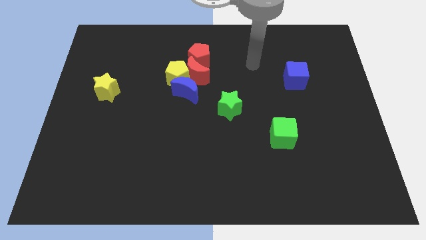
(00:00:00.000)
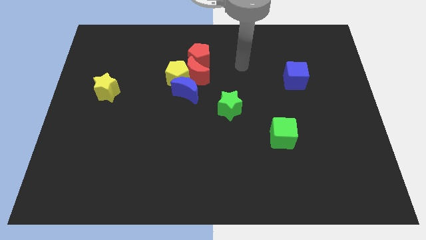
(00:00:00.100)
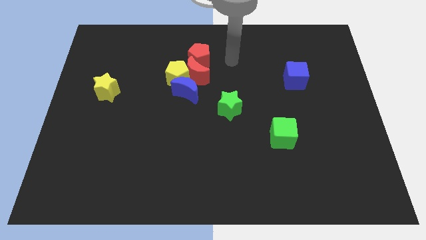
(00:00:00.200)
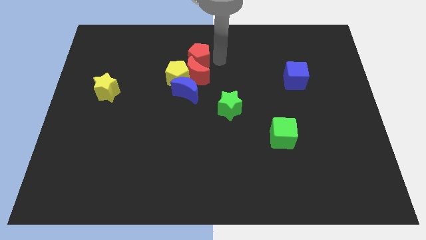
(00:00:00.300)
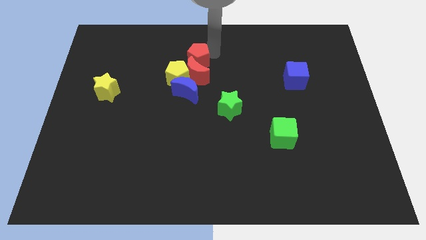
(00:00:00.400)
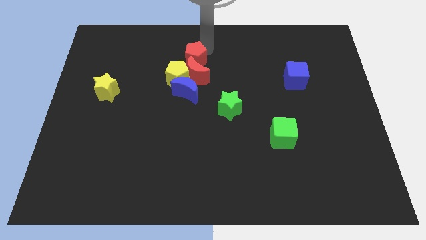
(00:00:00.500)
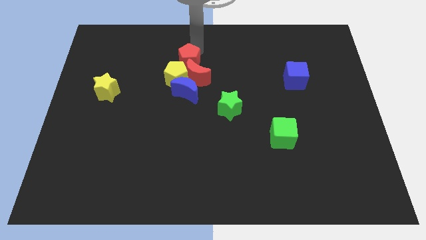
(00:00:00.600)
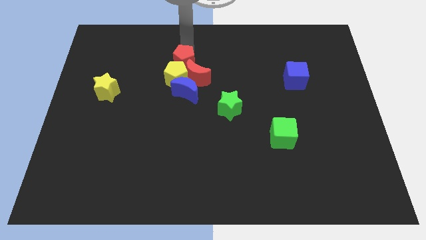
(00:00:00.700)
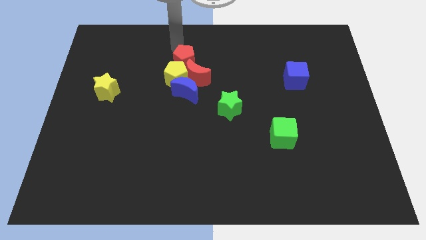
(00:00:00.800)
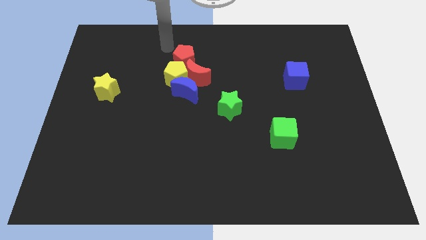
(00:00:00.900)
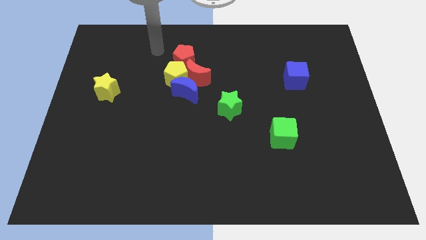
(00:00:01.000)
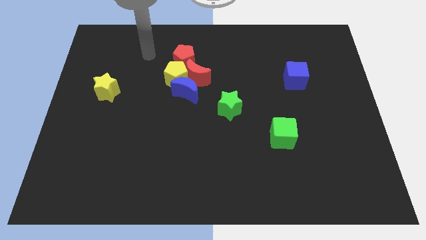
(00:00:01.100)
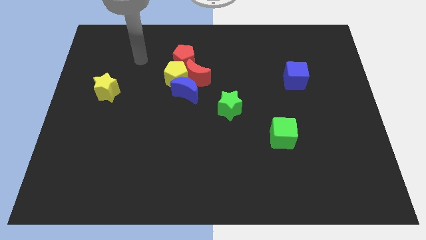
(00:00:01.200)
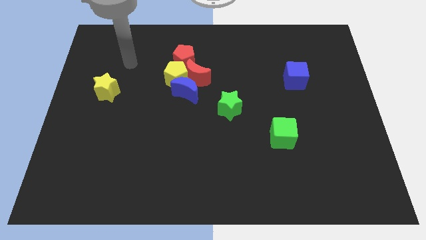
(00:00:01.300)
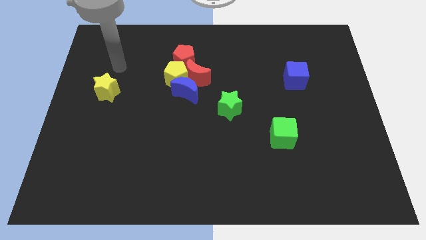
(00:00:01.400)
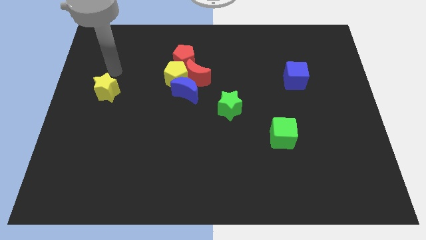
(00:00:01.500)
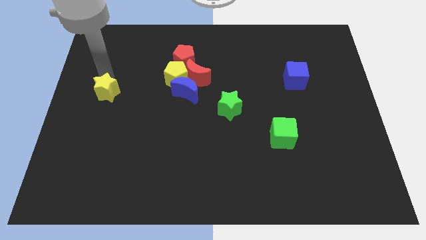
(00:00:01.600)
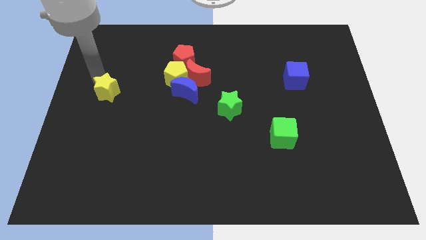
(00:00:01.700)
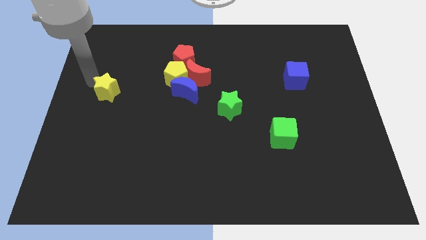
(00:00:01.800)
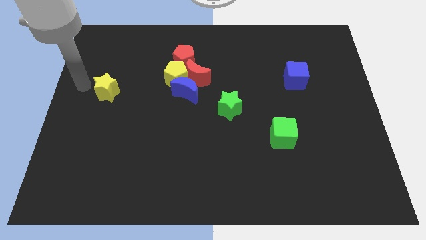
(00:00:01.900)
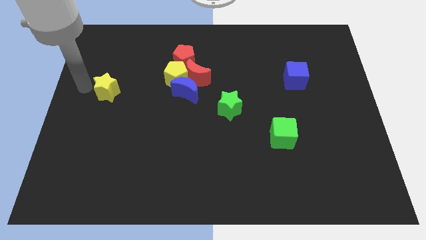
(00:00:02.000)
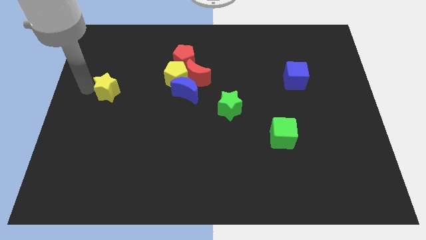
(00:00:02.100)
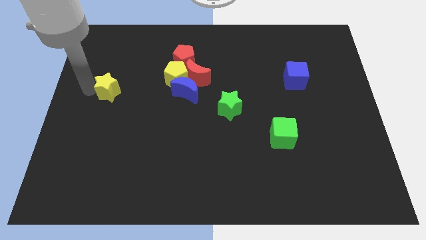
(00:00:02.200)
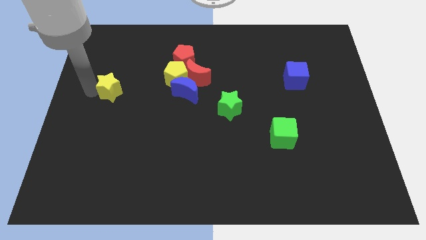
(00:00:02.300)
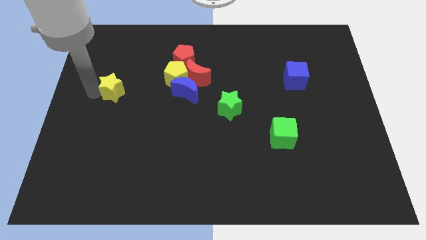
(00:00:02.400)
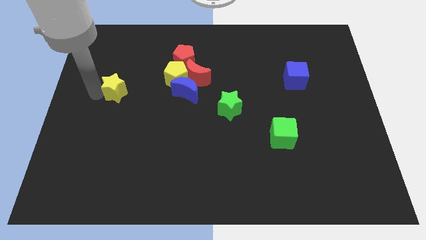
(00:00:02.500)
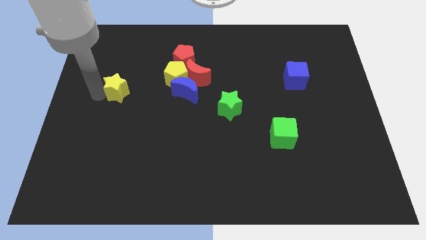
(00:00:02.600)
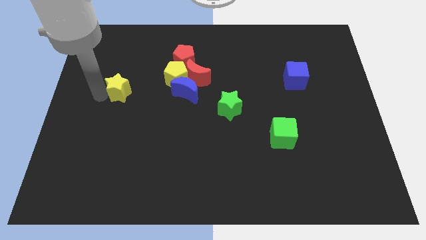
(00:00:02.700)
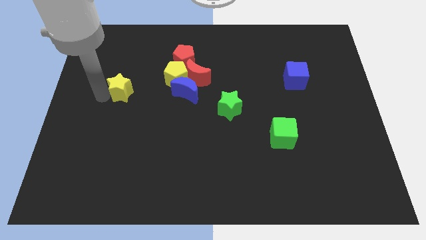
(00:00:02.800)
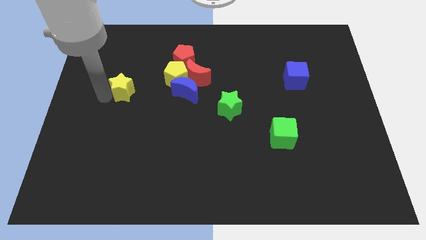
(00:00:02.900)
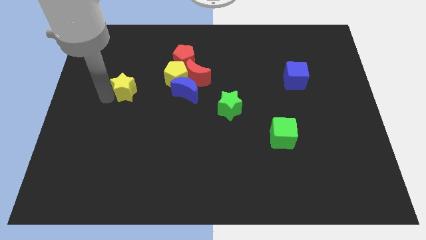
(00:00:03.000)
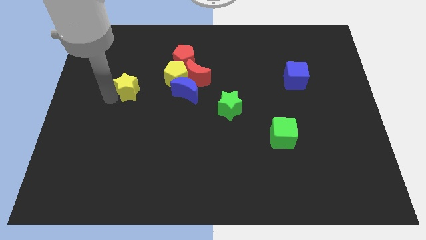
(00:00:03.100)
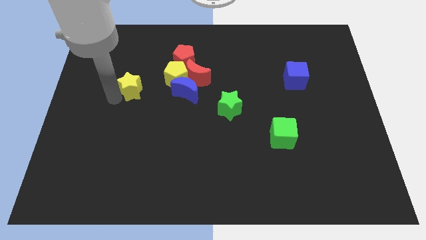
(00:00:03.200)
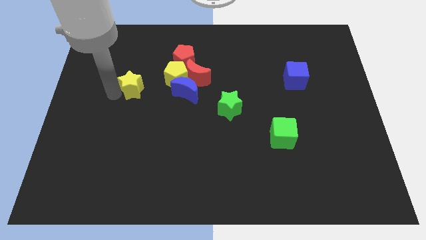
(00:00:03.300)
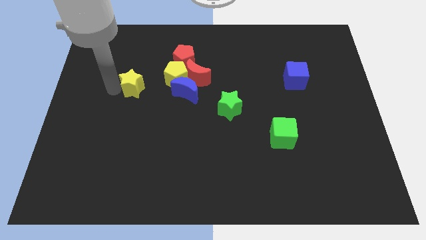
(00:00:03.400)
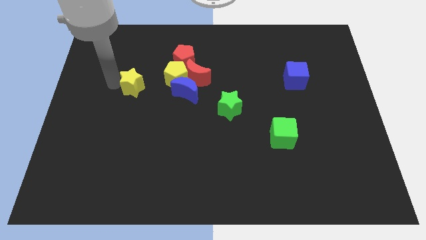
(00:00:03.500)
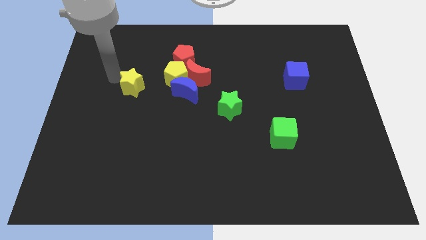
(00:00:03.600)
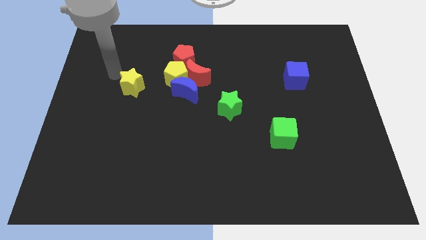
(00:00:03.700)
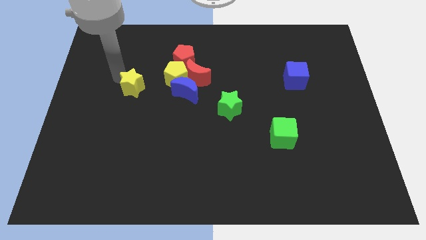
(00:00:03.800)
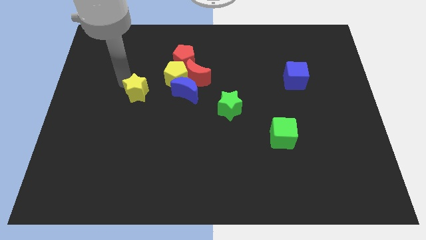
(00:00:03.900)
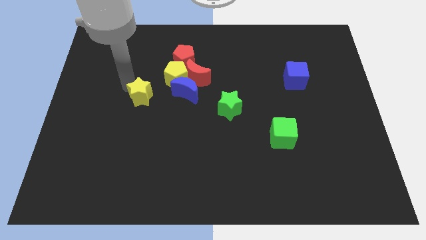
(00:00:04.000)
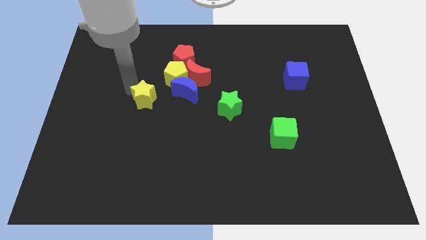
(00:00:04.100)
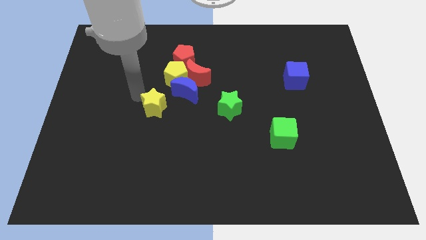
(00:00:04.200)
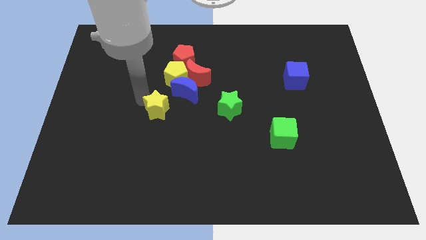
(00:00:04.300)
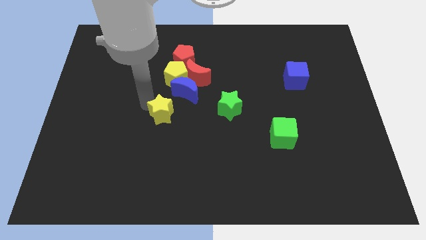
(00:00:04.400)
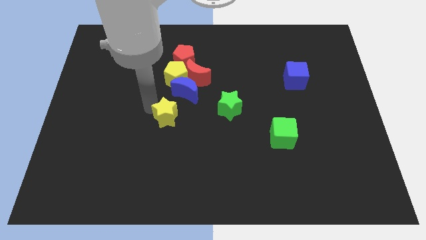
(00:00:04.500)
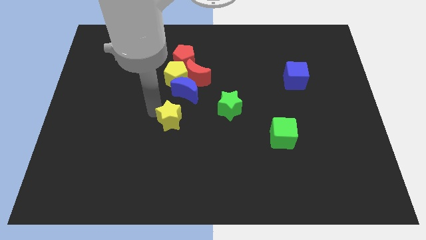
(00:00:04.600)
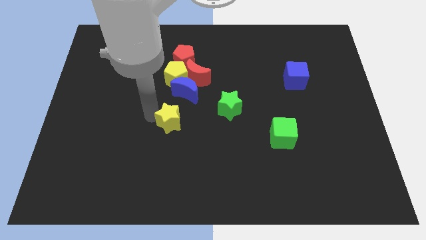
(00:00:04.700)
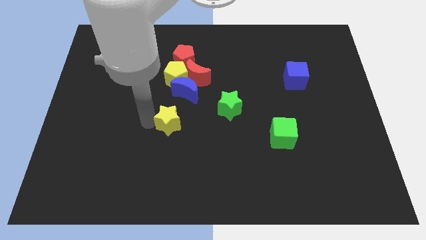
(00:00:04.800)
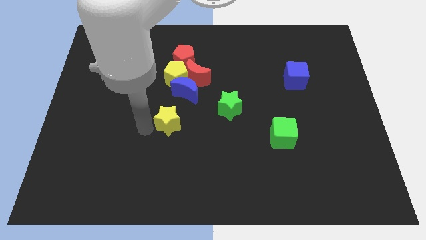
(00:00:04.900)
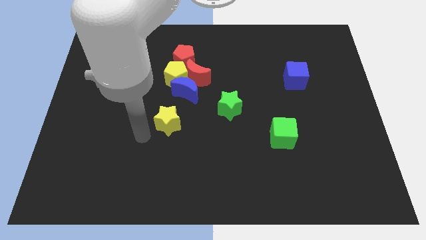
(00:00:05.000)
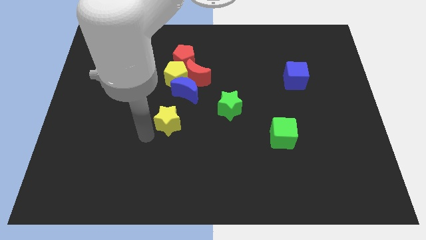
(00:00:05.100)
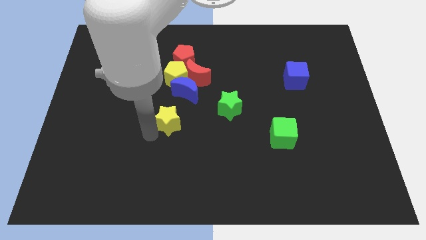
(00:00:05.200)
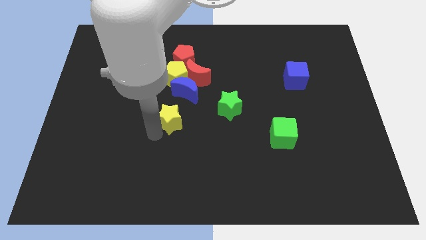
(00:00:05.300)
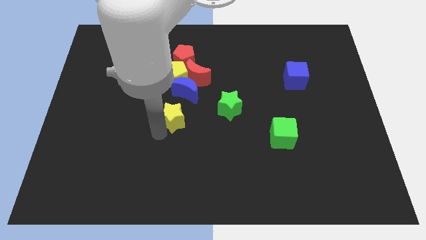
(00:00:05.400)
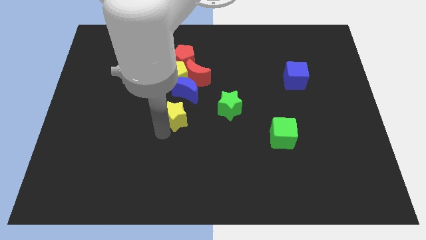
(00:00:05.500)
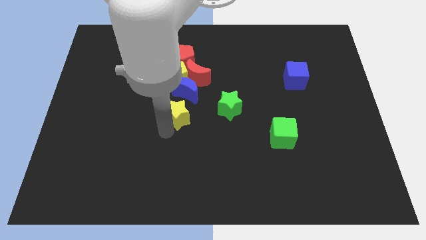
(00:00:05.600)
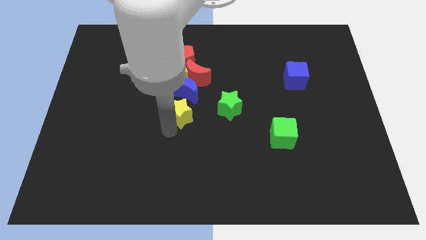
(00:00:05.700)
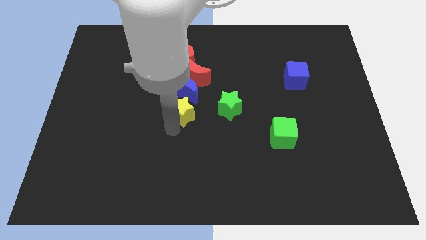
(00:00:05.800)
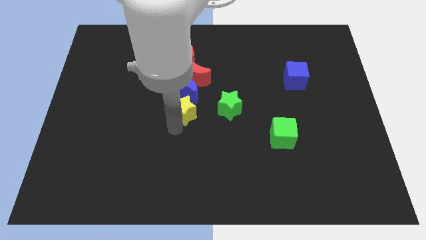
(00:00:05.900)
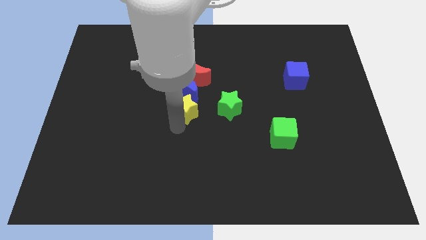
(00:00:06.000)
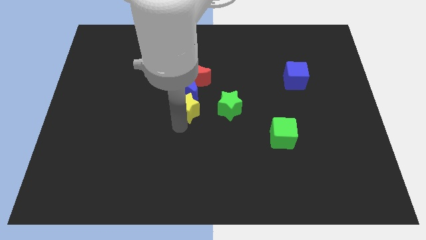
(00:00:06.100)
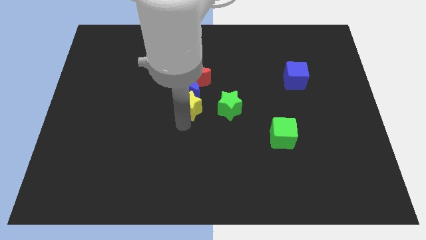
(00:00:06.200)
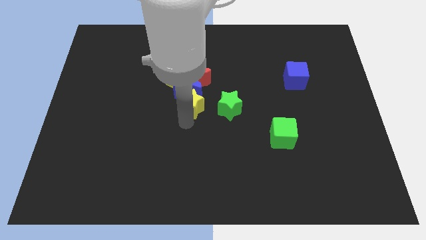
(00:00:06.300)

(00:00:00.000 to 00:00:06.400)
push the yellow star to the right

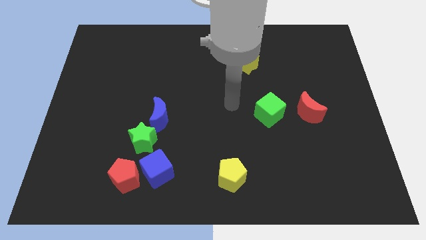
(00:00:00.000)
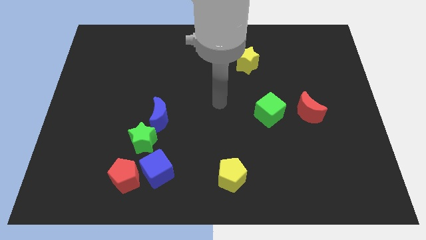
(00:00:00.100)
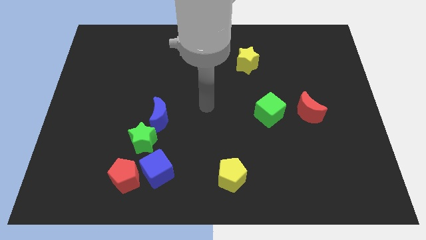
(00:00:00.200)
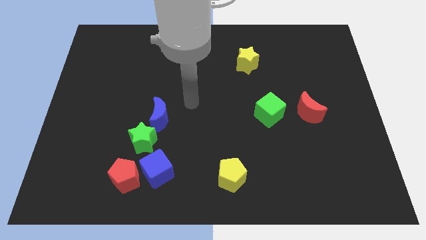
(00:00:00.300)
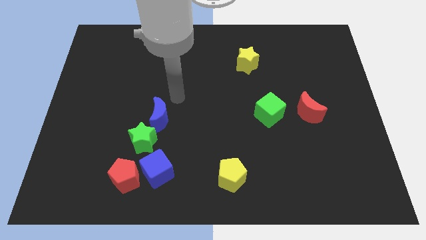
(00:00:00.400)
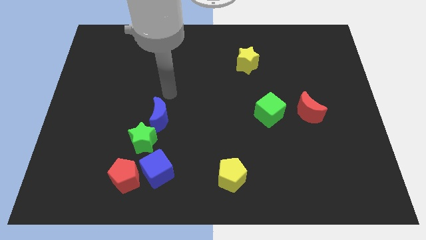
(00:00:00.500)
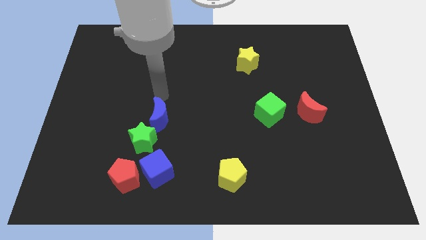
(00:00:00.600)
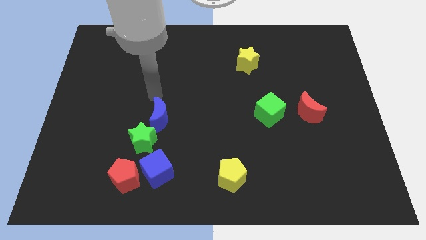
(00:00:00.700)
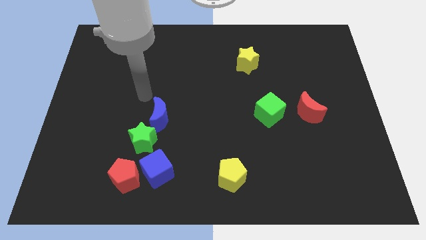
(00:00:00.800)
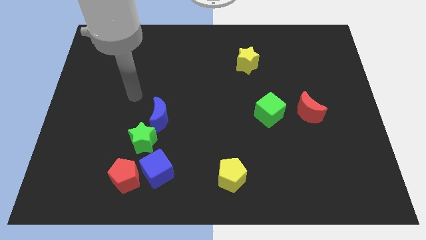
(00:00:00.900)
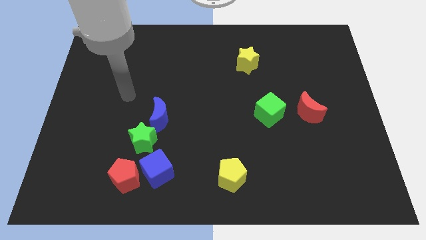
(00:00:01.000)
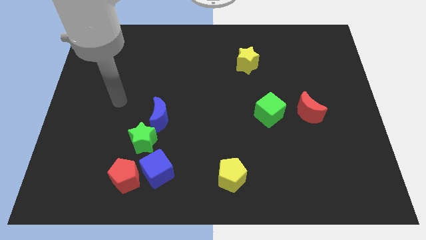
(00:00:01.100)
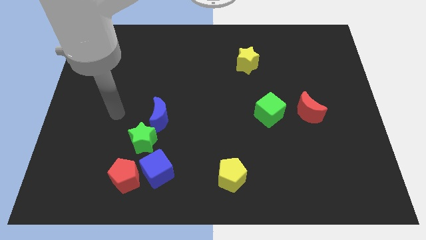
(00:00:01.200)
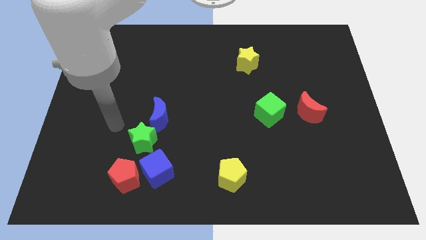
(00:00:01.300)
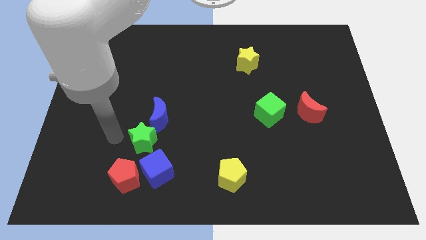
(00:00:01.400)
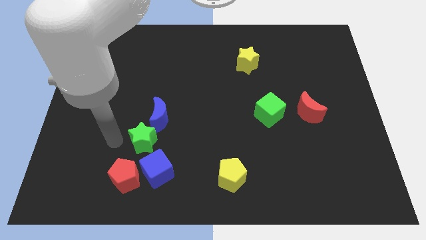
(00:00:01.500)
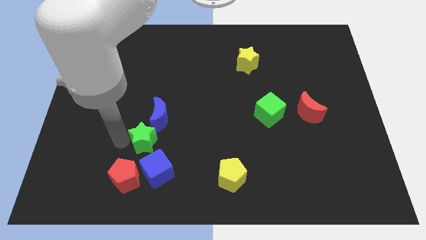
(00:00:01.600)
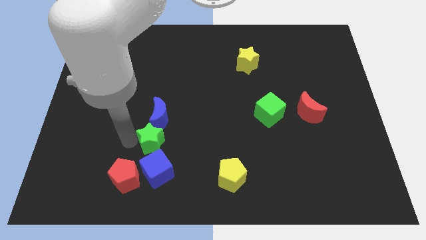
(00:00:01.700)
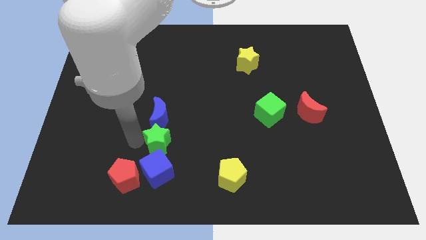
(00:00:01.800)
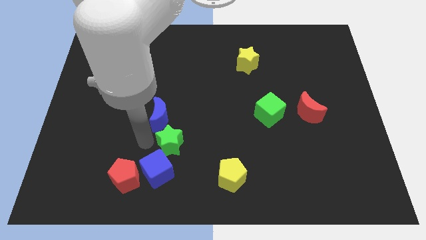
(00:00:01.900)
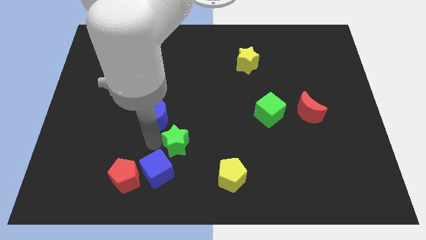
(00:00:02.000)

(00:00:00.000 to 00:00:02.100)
move the green star to the right slightly
